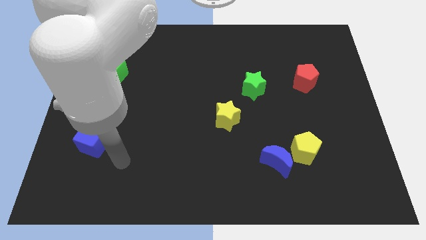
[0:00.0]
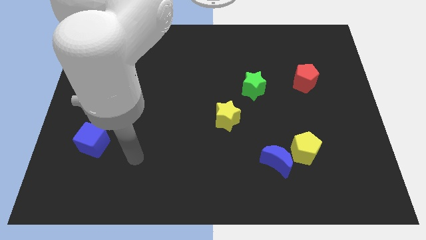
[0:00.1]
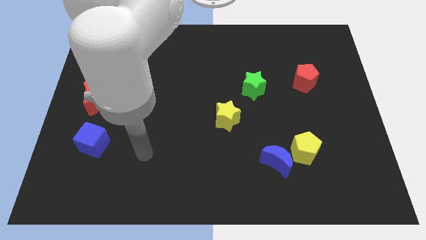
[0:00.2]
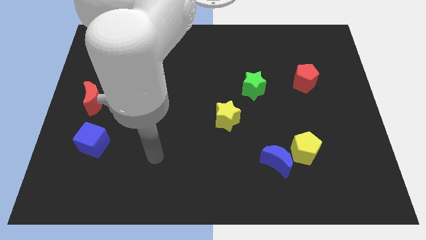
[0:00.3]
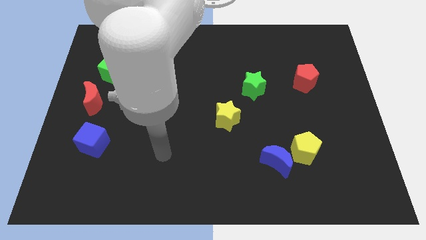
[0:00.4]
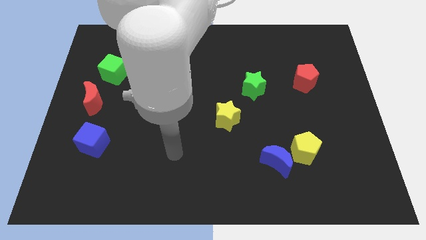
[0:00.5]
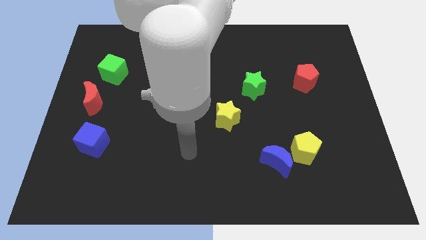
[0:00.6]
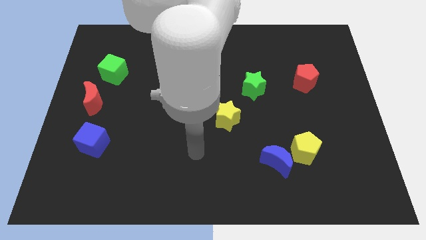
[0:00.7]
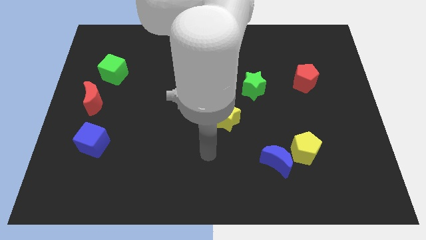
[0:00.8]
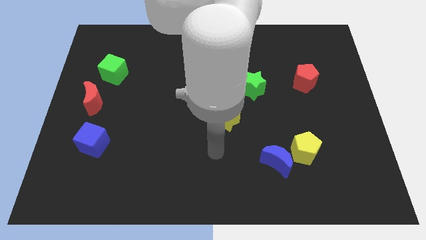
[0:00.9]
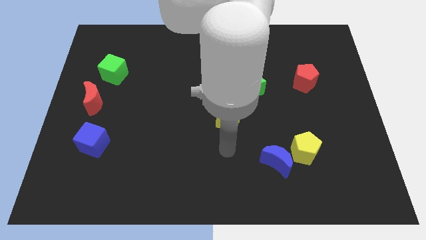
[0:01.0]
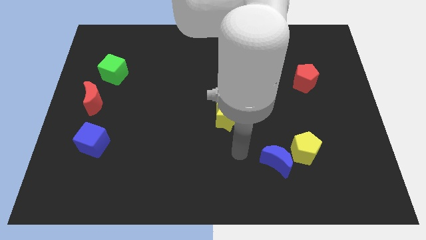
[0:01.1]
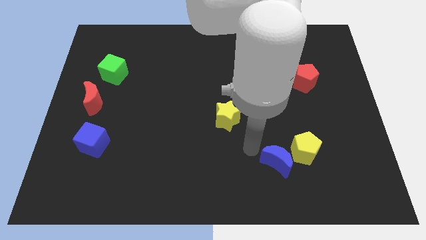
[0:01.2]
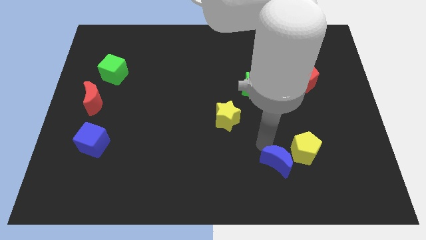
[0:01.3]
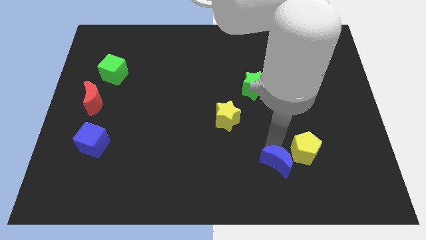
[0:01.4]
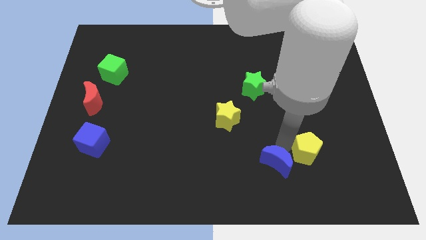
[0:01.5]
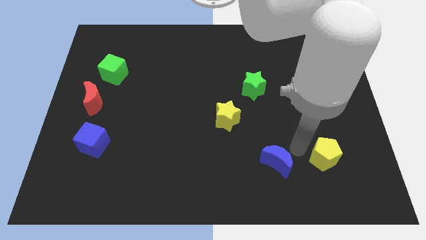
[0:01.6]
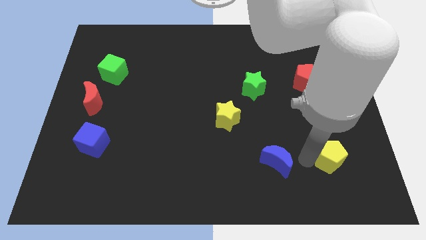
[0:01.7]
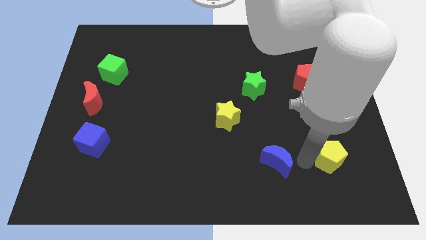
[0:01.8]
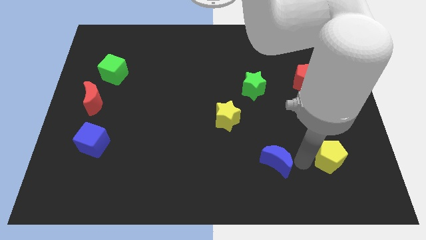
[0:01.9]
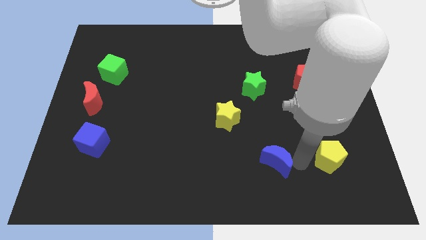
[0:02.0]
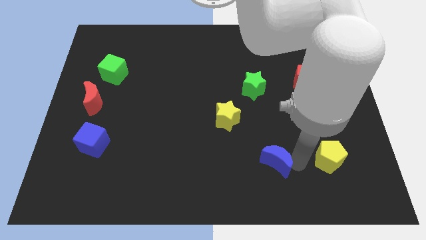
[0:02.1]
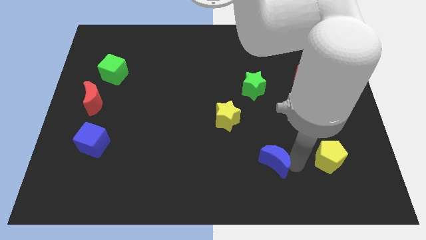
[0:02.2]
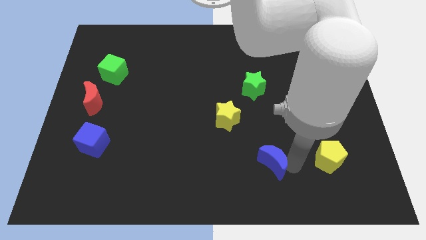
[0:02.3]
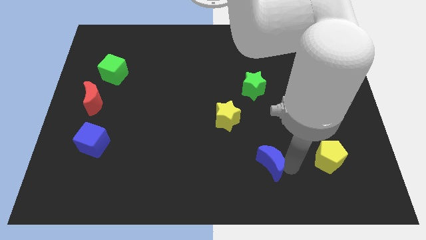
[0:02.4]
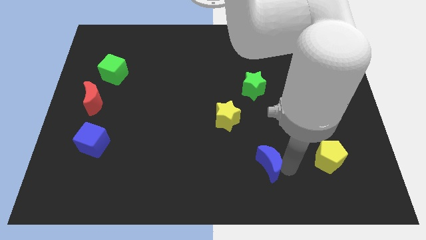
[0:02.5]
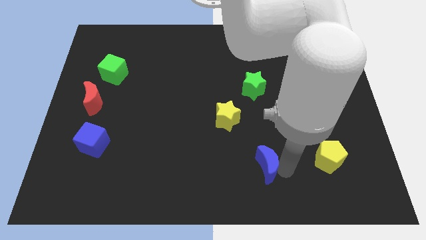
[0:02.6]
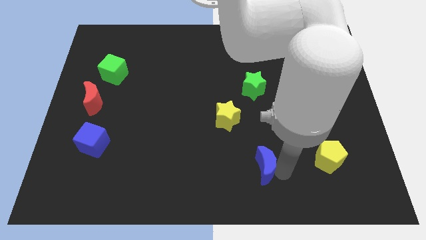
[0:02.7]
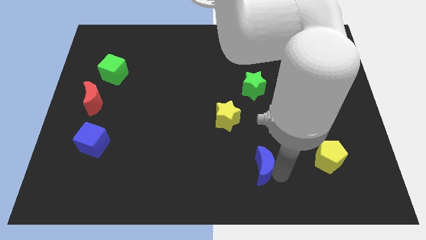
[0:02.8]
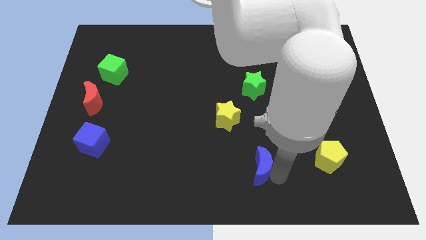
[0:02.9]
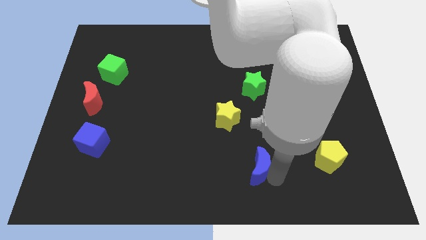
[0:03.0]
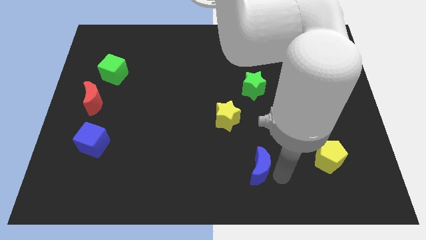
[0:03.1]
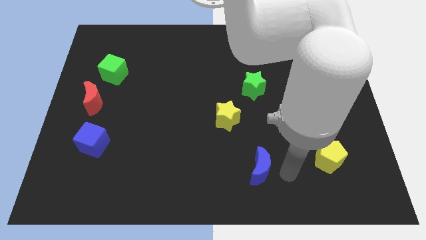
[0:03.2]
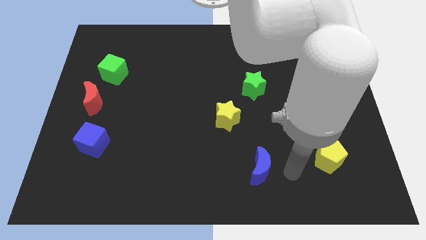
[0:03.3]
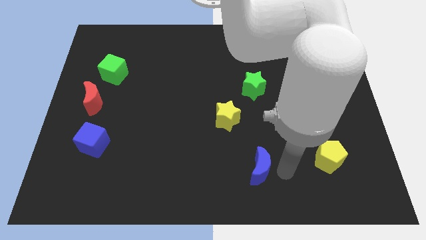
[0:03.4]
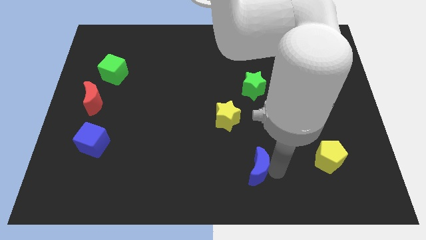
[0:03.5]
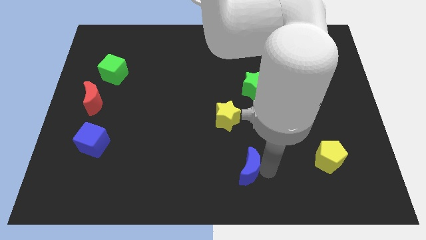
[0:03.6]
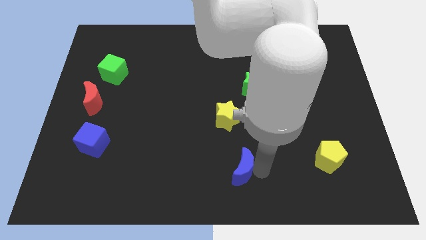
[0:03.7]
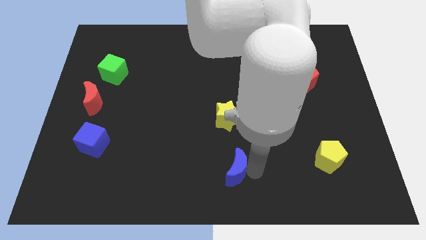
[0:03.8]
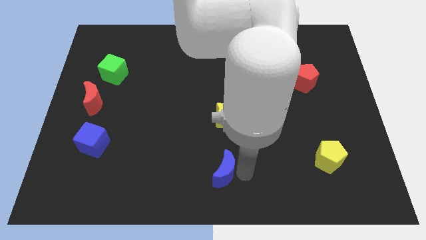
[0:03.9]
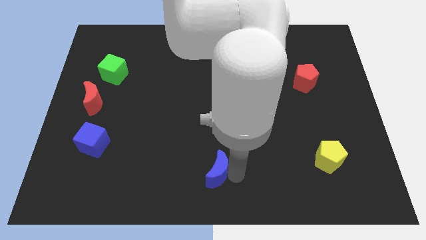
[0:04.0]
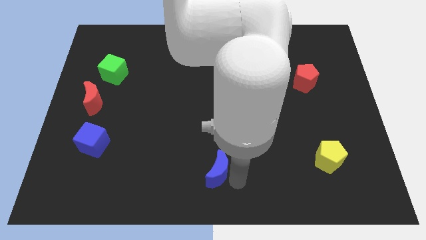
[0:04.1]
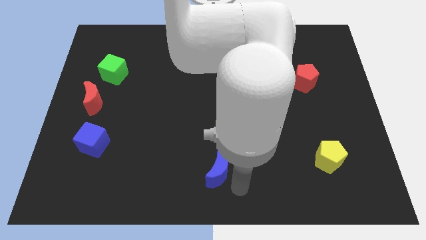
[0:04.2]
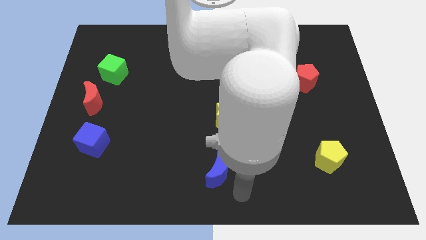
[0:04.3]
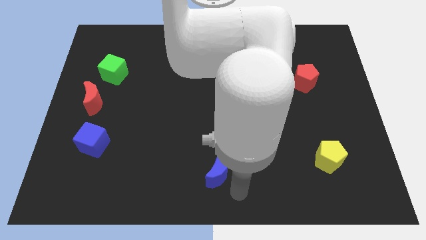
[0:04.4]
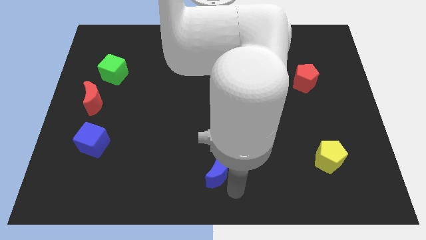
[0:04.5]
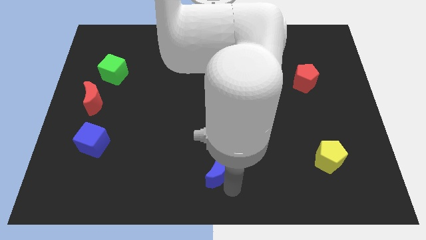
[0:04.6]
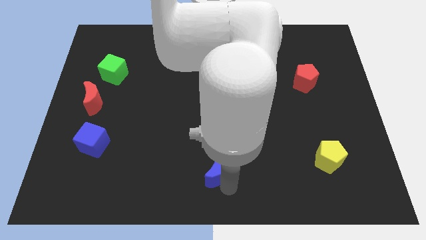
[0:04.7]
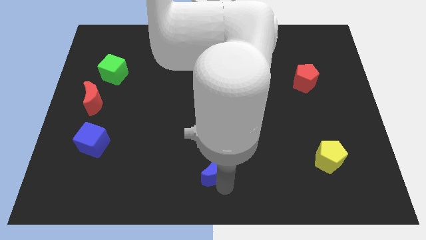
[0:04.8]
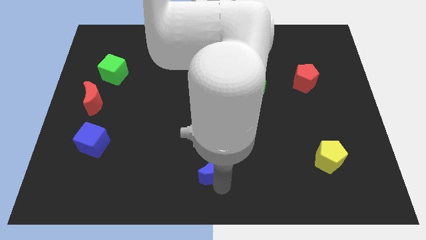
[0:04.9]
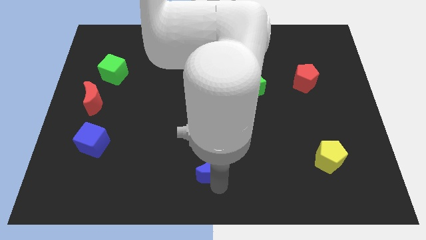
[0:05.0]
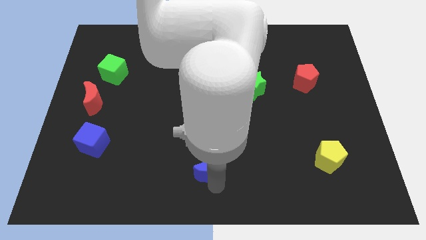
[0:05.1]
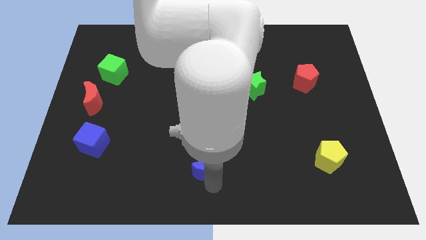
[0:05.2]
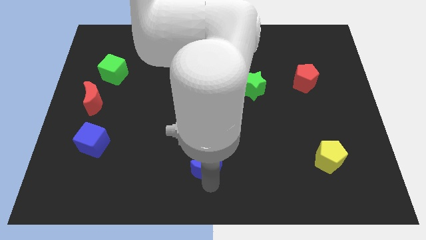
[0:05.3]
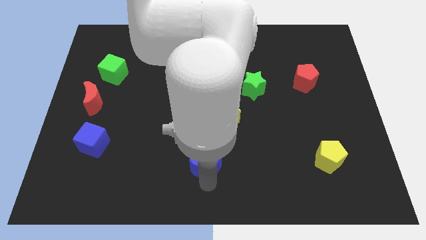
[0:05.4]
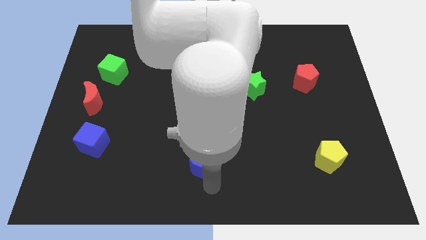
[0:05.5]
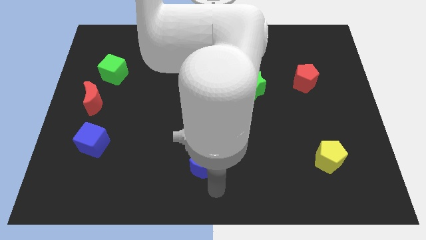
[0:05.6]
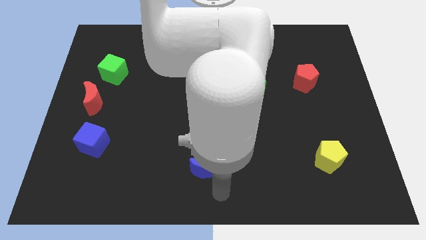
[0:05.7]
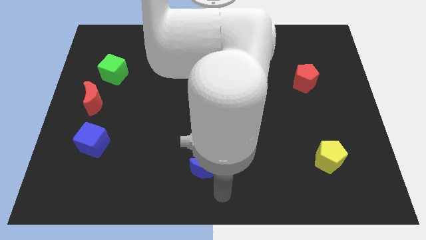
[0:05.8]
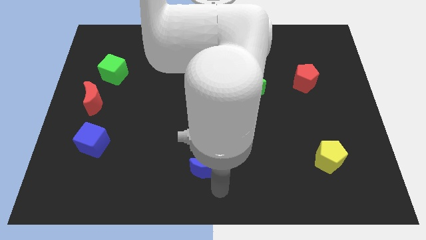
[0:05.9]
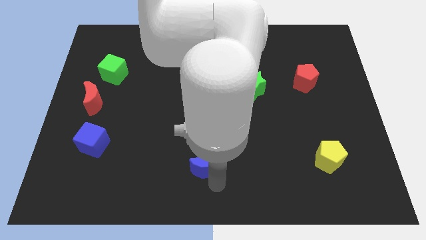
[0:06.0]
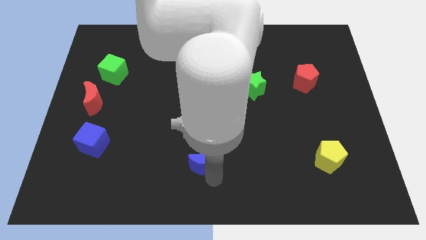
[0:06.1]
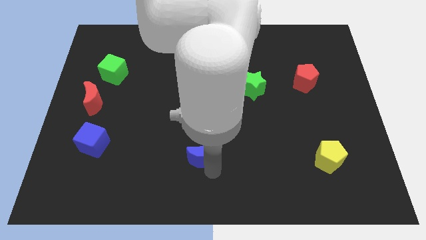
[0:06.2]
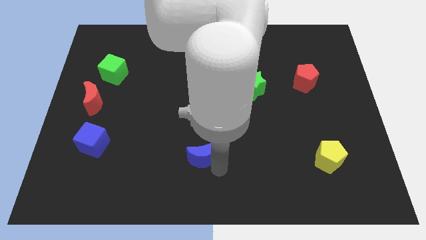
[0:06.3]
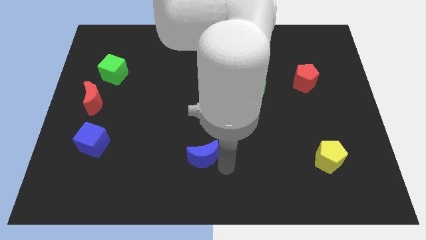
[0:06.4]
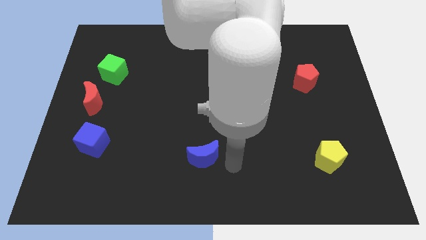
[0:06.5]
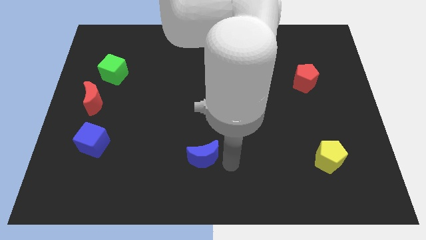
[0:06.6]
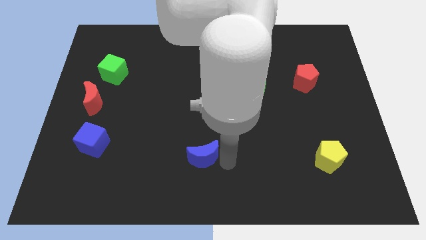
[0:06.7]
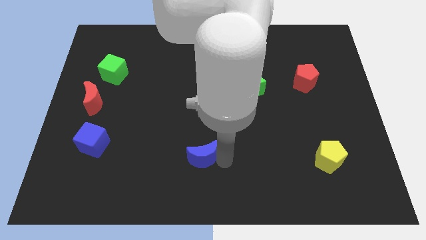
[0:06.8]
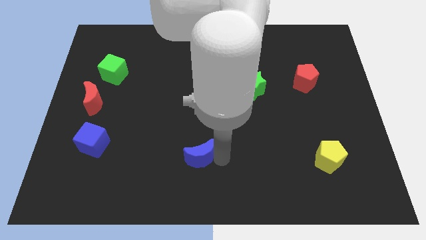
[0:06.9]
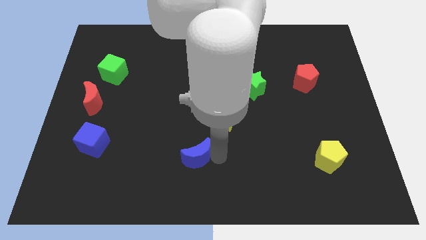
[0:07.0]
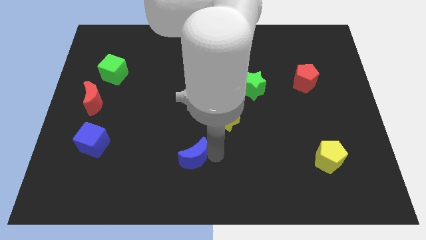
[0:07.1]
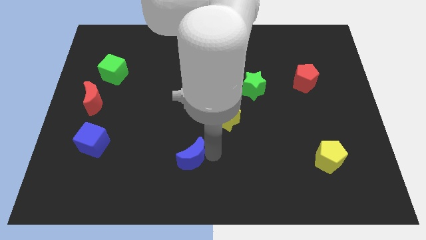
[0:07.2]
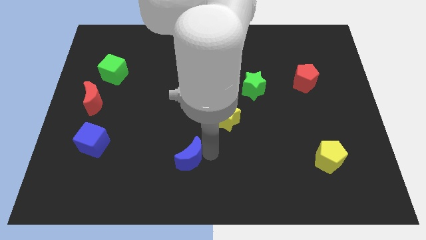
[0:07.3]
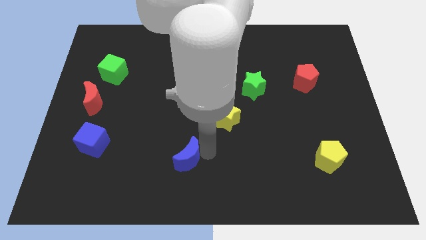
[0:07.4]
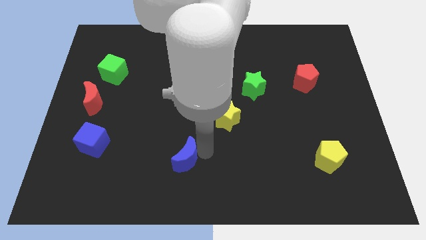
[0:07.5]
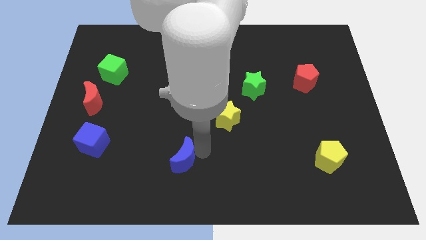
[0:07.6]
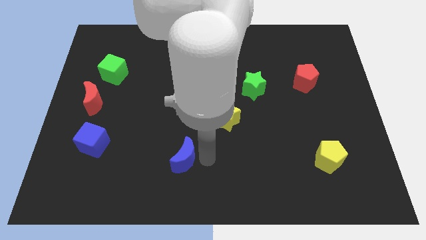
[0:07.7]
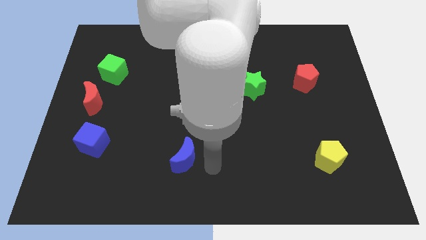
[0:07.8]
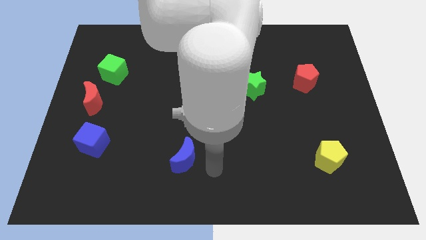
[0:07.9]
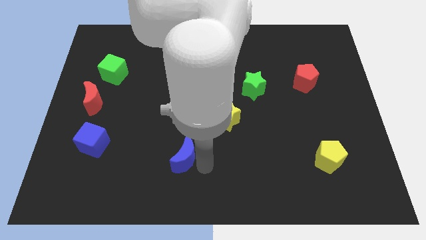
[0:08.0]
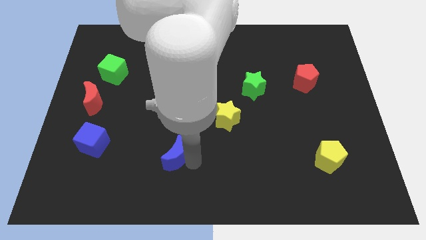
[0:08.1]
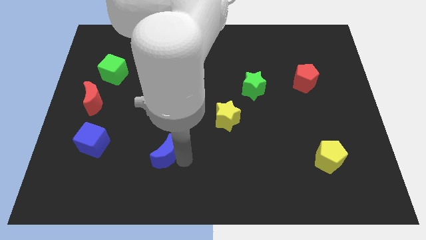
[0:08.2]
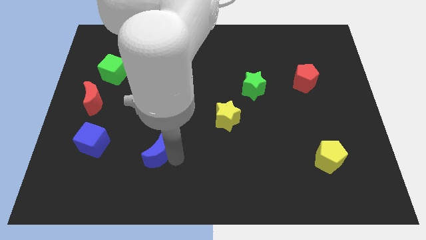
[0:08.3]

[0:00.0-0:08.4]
slide the blue moon just right of the blue cube
